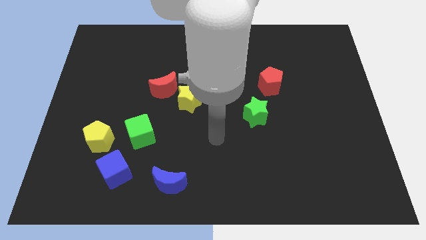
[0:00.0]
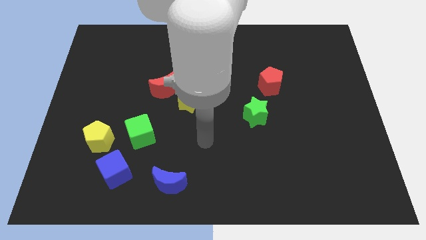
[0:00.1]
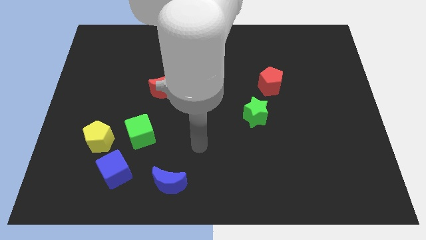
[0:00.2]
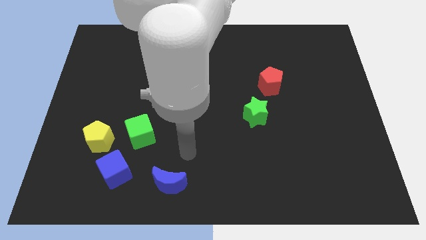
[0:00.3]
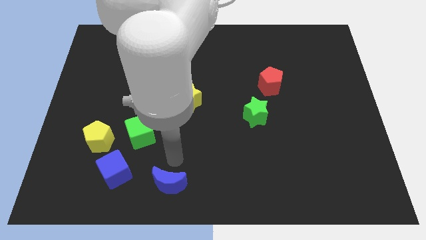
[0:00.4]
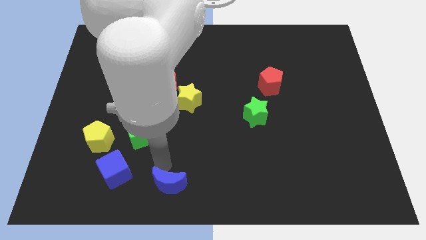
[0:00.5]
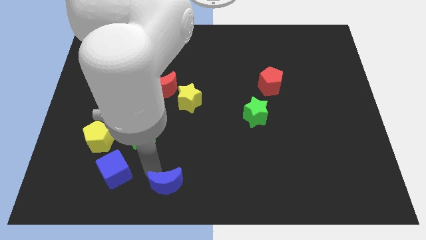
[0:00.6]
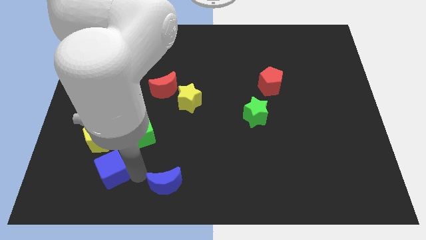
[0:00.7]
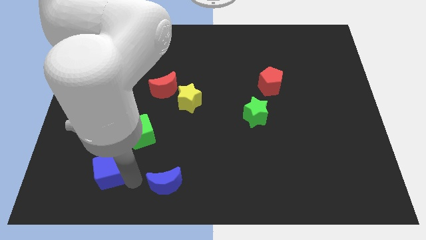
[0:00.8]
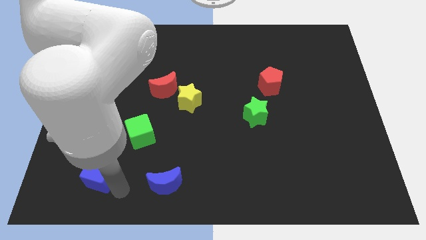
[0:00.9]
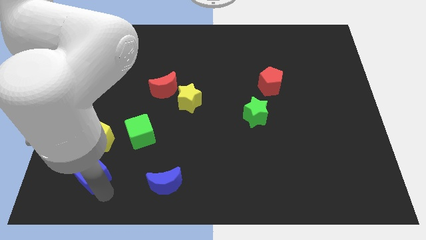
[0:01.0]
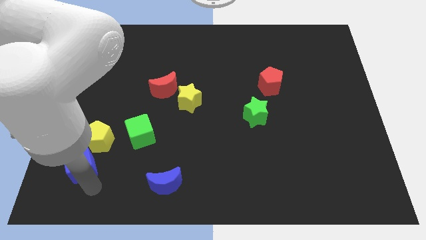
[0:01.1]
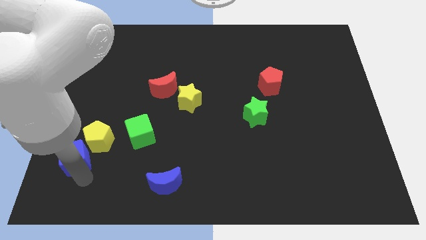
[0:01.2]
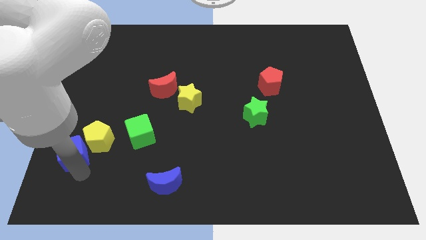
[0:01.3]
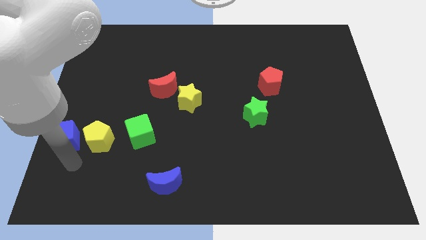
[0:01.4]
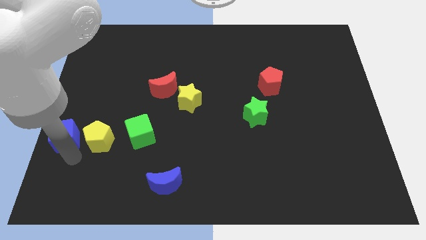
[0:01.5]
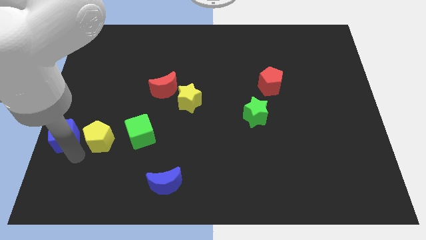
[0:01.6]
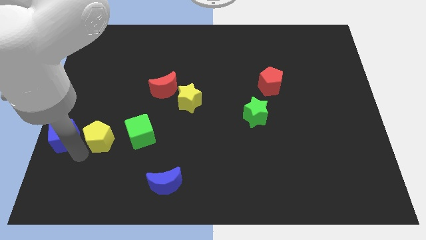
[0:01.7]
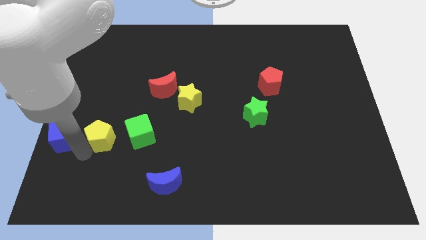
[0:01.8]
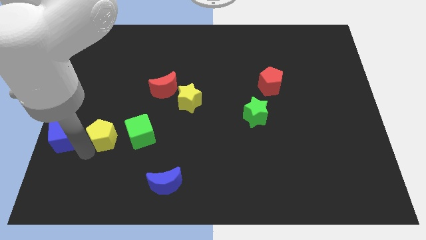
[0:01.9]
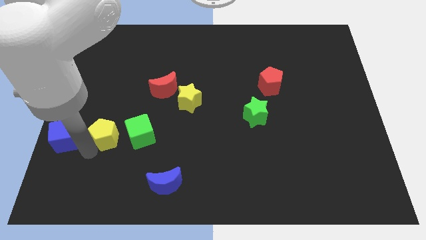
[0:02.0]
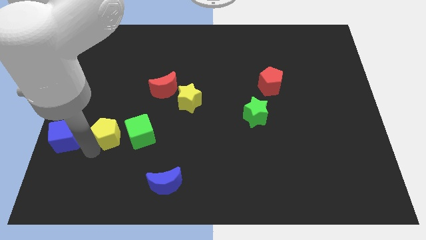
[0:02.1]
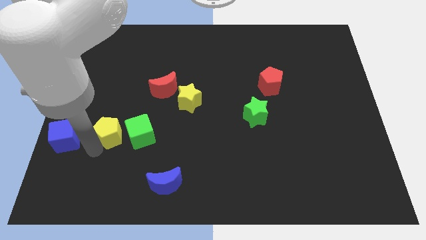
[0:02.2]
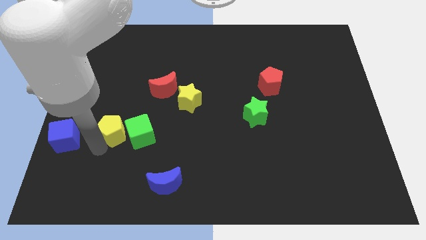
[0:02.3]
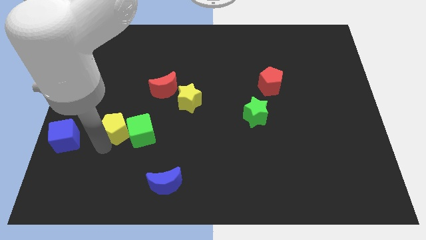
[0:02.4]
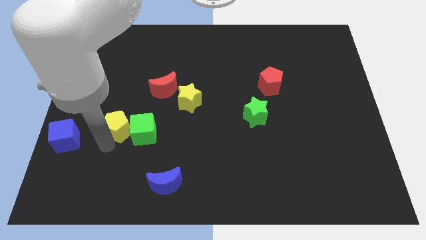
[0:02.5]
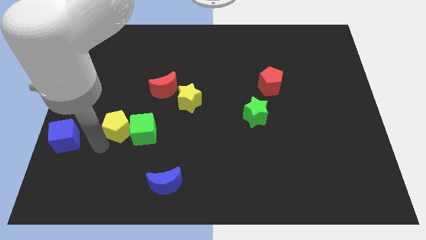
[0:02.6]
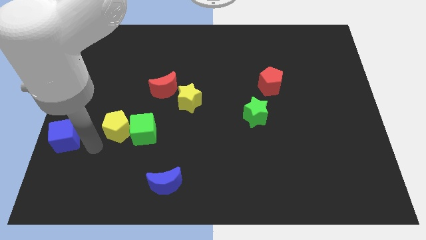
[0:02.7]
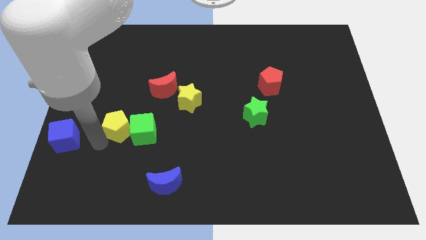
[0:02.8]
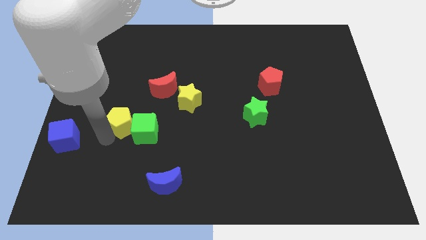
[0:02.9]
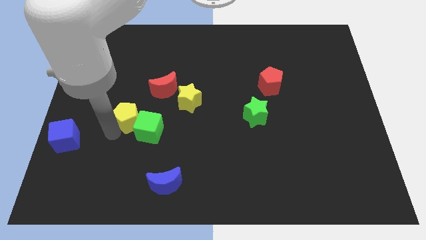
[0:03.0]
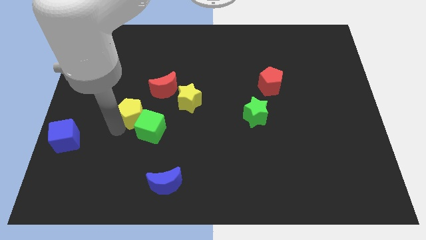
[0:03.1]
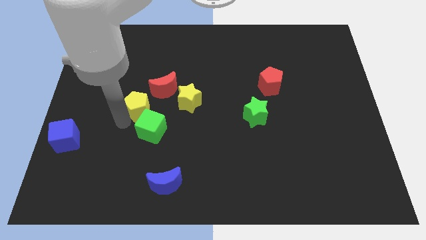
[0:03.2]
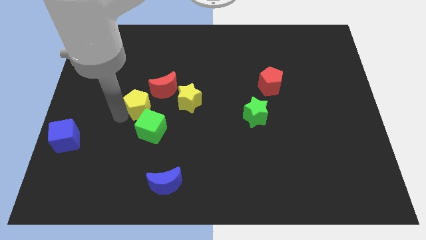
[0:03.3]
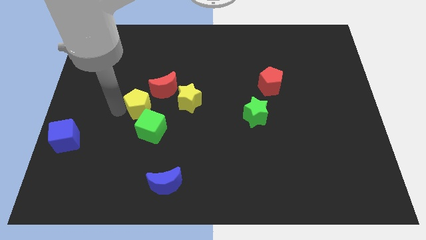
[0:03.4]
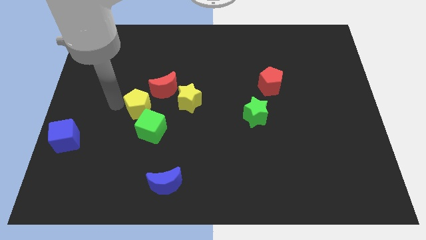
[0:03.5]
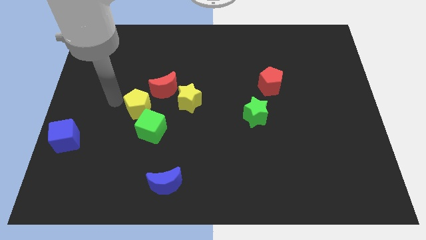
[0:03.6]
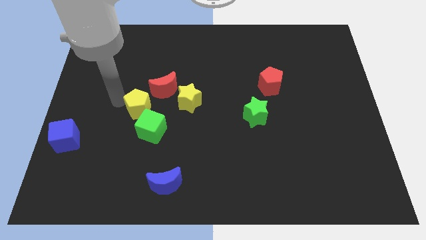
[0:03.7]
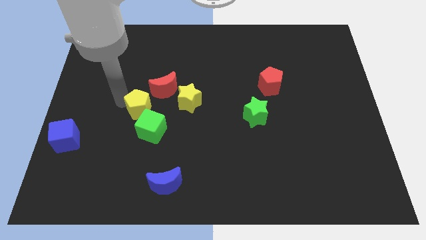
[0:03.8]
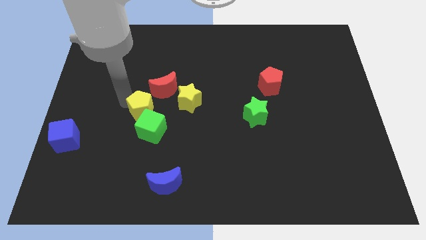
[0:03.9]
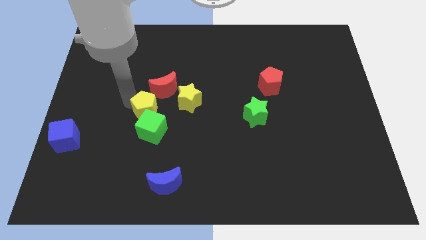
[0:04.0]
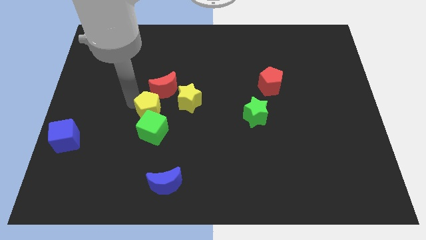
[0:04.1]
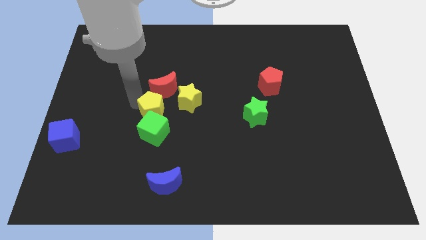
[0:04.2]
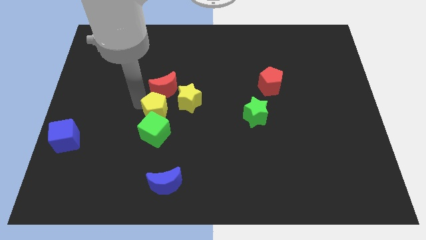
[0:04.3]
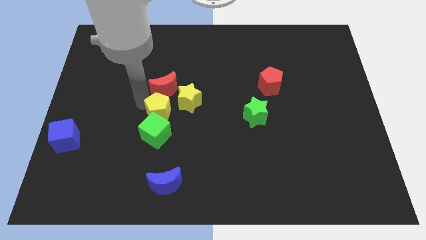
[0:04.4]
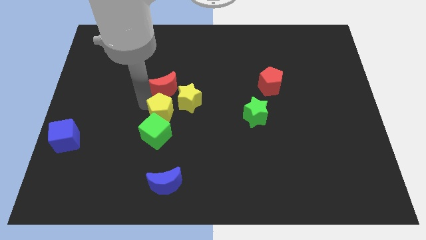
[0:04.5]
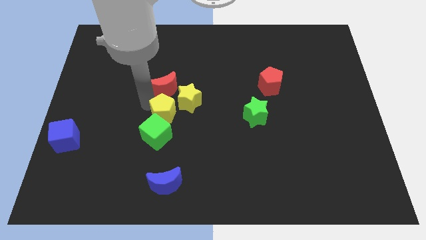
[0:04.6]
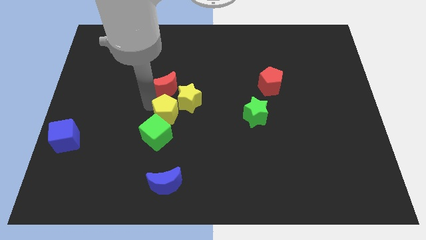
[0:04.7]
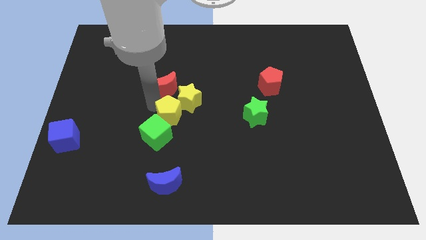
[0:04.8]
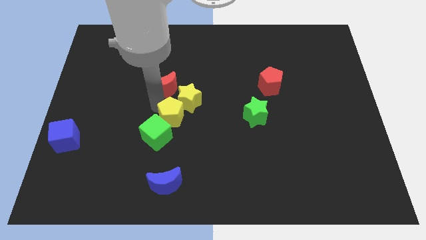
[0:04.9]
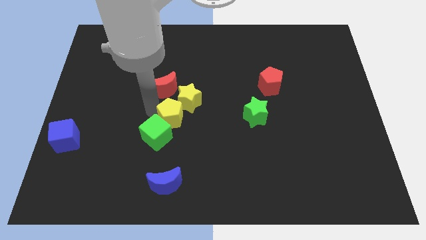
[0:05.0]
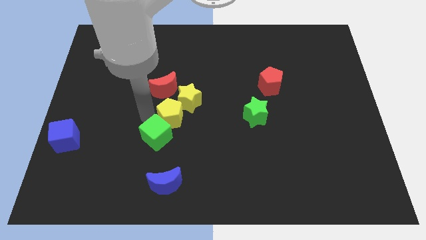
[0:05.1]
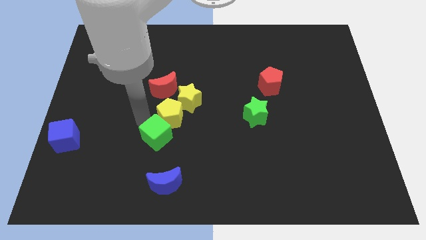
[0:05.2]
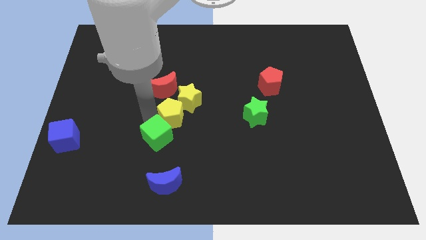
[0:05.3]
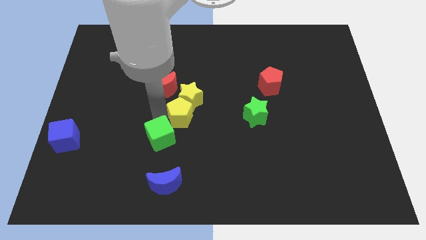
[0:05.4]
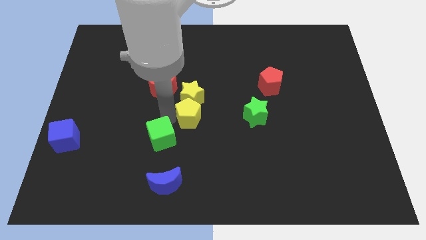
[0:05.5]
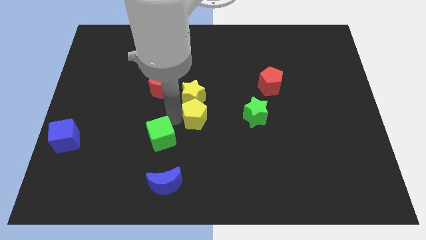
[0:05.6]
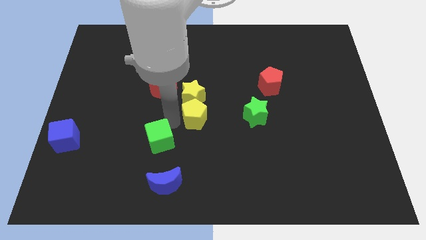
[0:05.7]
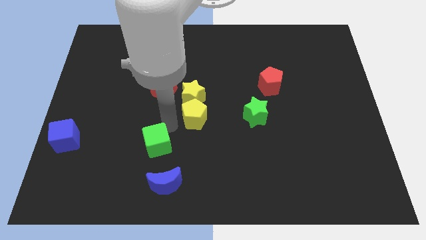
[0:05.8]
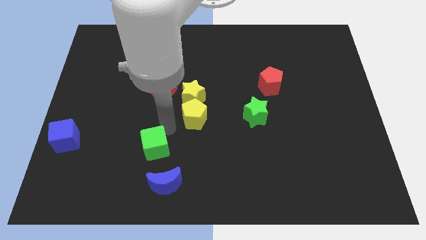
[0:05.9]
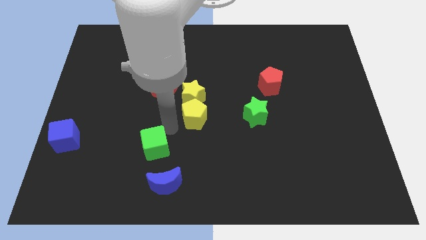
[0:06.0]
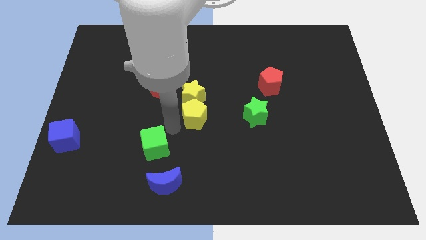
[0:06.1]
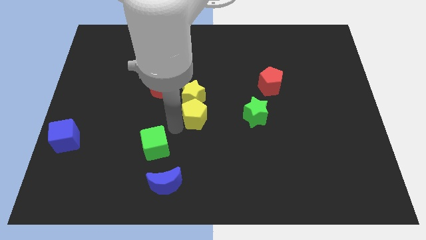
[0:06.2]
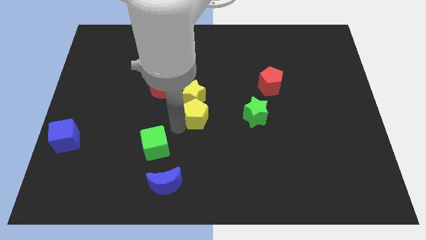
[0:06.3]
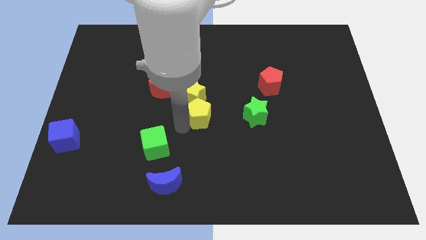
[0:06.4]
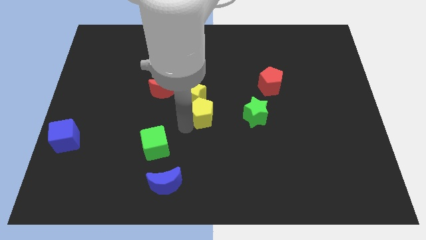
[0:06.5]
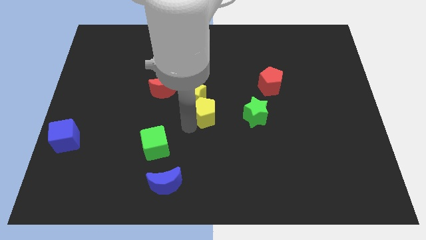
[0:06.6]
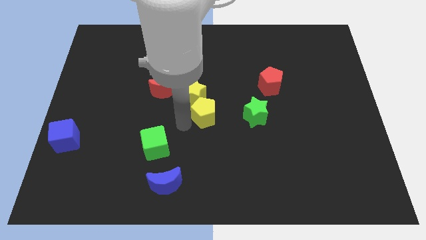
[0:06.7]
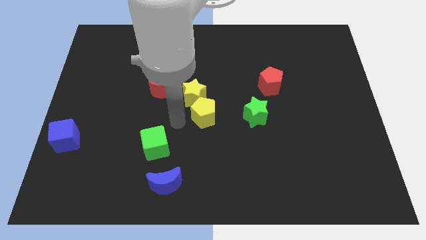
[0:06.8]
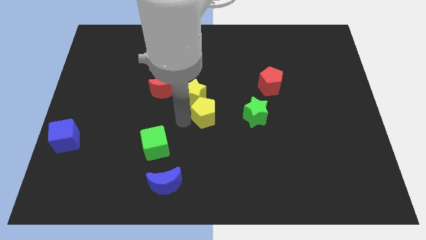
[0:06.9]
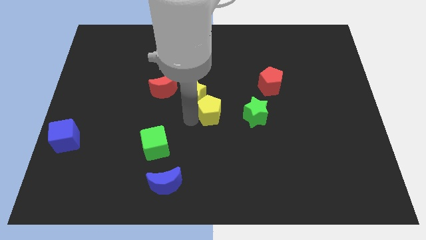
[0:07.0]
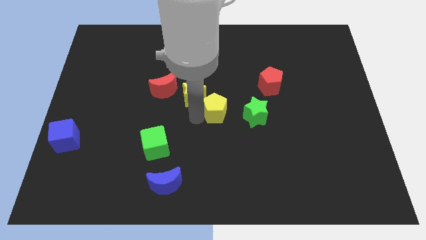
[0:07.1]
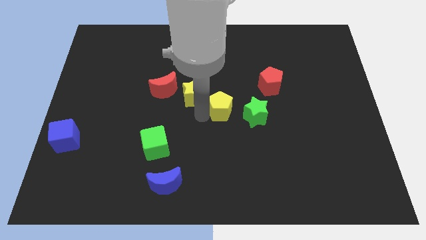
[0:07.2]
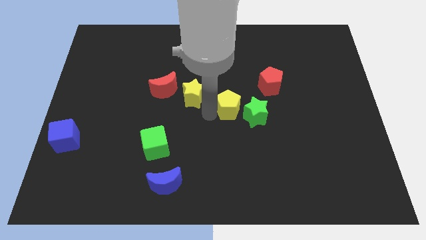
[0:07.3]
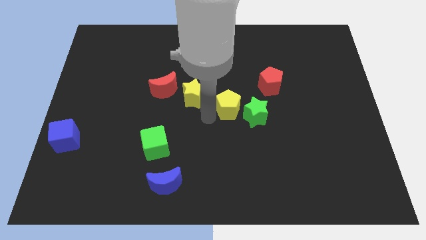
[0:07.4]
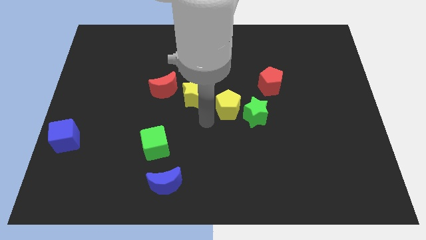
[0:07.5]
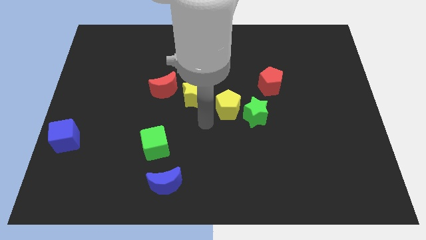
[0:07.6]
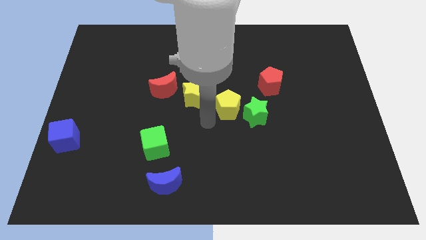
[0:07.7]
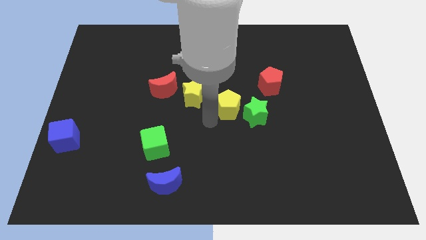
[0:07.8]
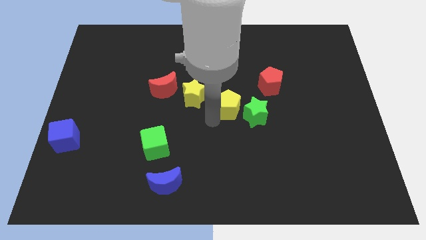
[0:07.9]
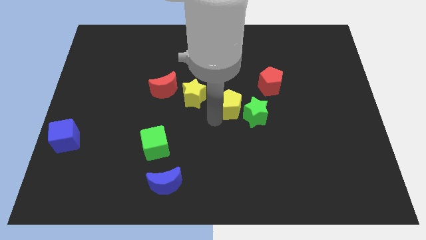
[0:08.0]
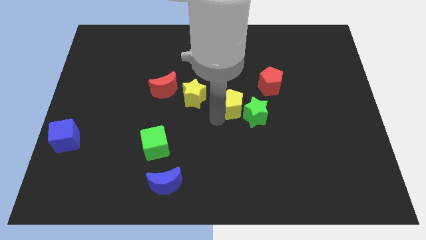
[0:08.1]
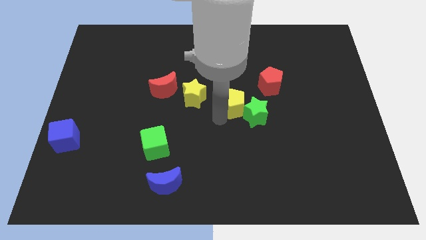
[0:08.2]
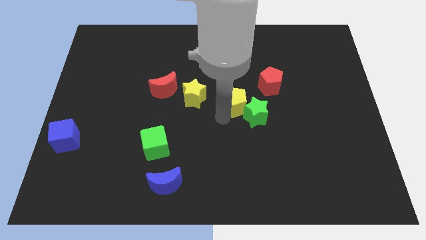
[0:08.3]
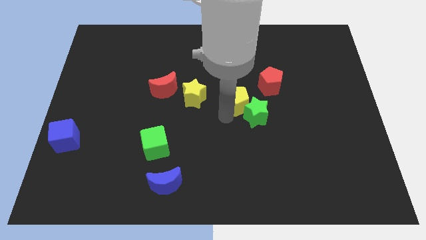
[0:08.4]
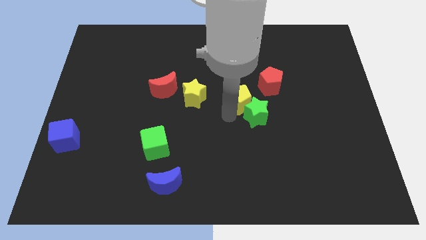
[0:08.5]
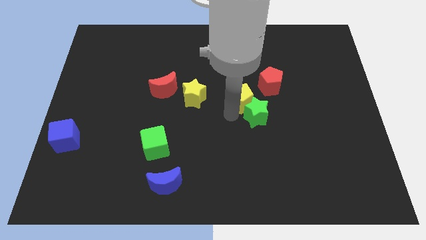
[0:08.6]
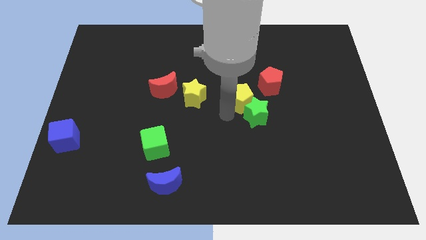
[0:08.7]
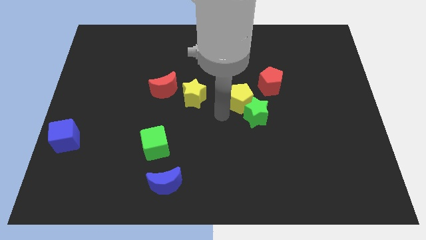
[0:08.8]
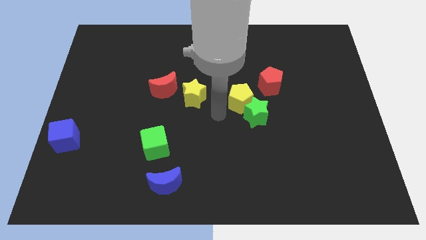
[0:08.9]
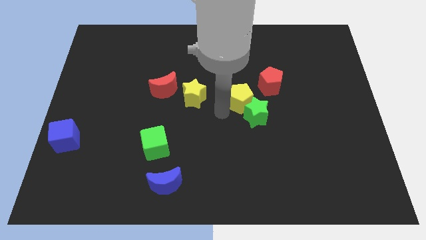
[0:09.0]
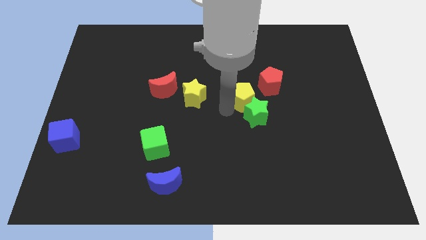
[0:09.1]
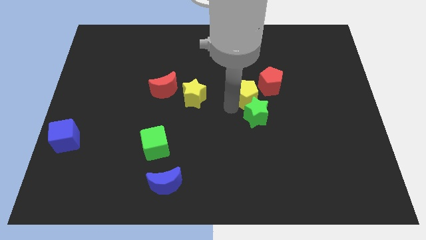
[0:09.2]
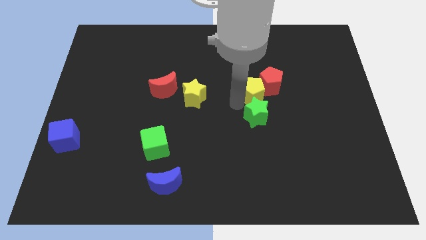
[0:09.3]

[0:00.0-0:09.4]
push the yellow pentagon next to the red pentagon
